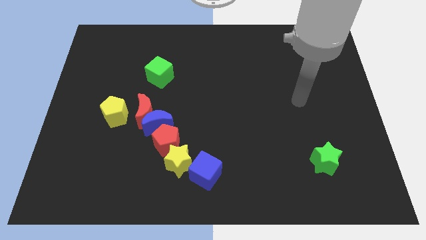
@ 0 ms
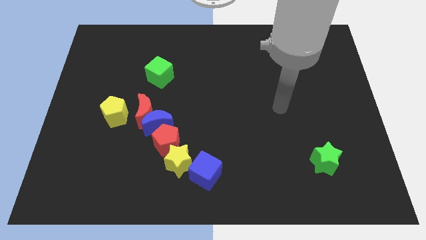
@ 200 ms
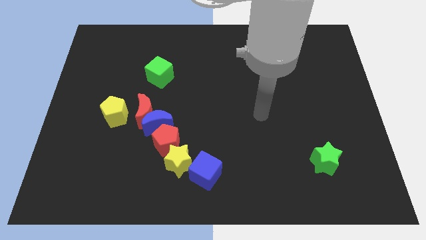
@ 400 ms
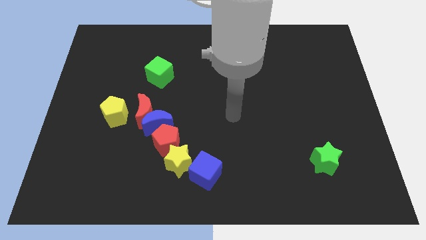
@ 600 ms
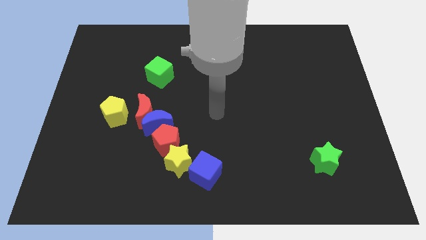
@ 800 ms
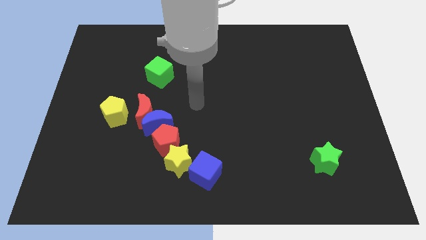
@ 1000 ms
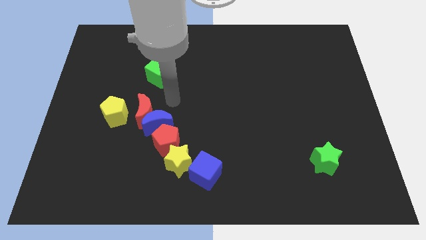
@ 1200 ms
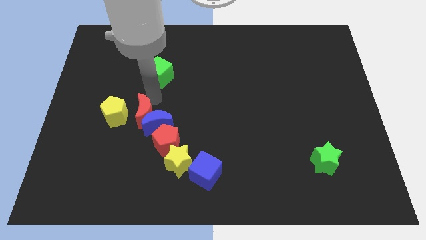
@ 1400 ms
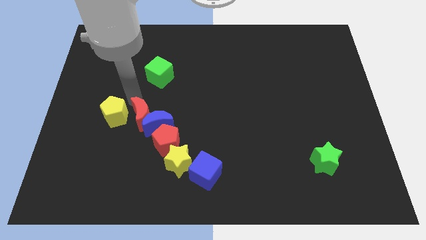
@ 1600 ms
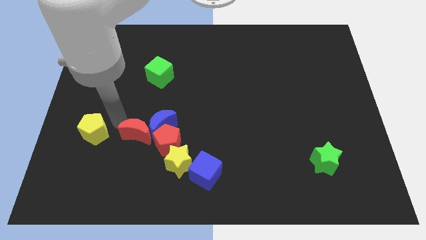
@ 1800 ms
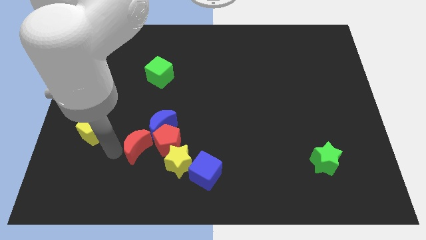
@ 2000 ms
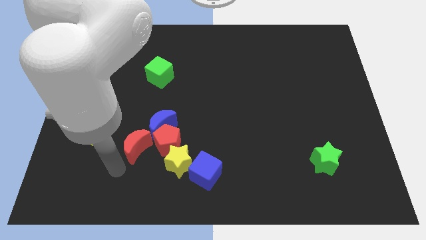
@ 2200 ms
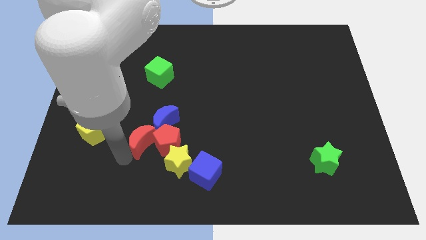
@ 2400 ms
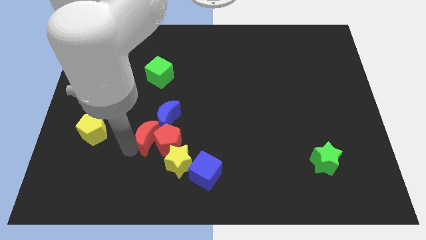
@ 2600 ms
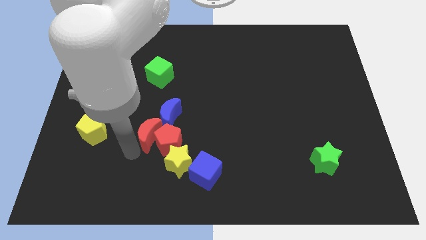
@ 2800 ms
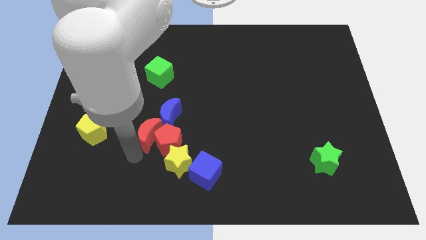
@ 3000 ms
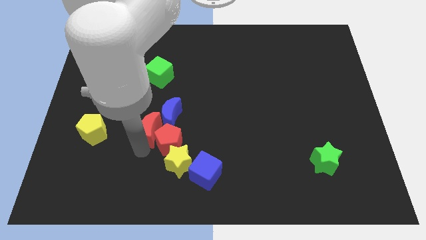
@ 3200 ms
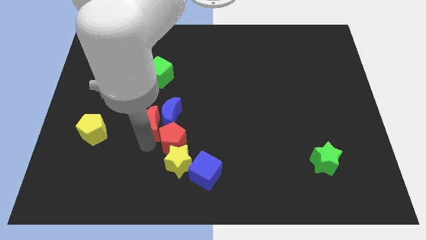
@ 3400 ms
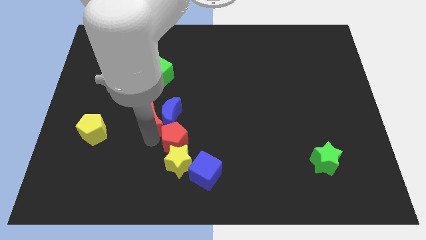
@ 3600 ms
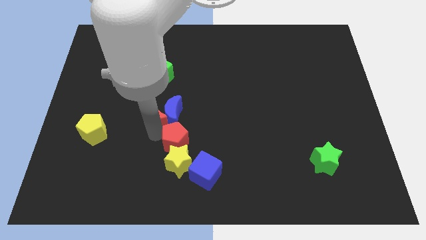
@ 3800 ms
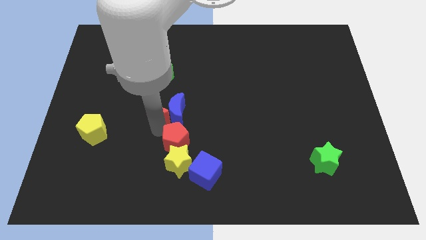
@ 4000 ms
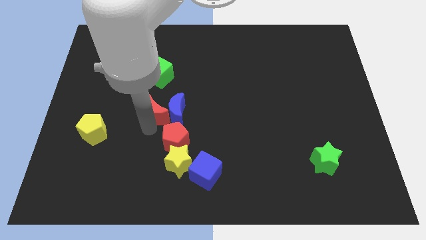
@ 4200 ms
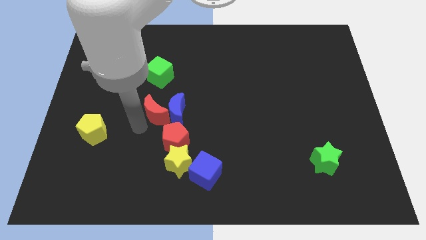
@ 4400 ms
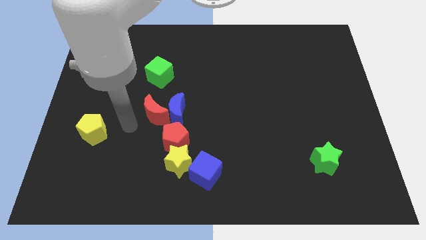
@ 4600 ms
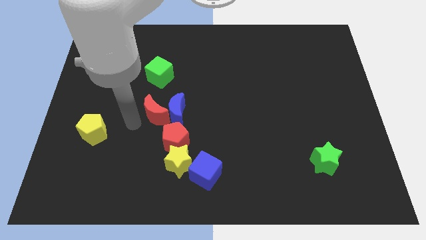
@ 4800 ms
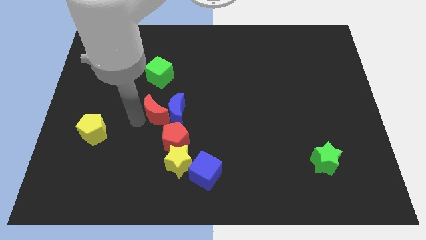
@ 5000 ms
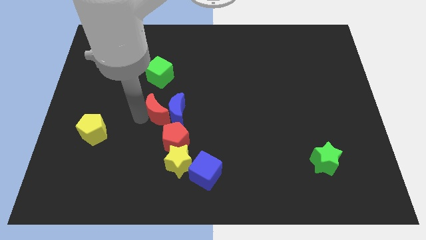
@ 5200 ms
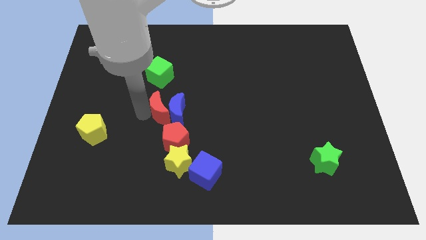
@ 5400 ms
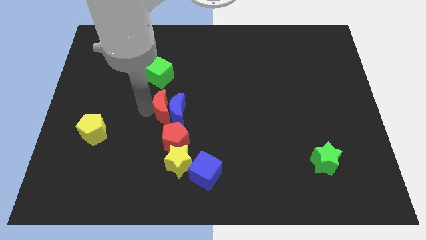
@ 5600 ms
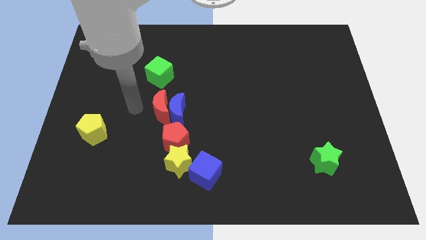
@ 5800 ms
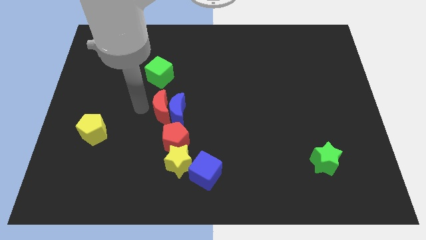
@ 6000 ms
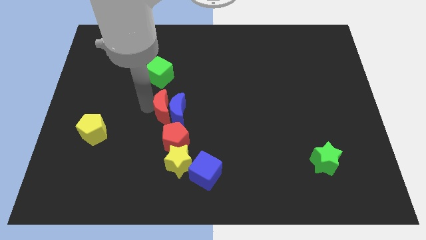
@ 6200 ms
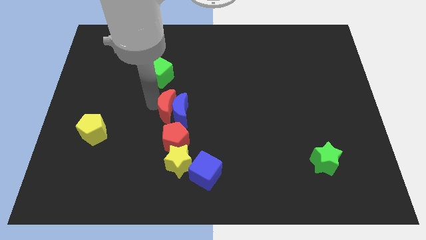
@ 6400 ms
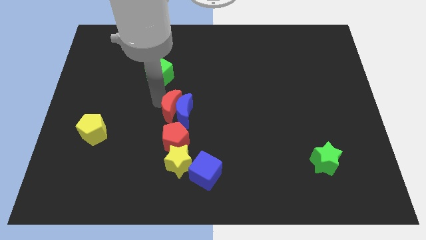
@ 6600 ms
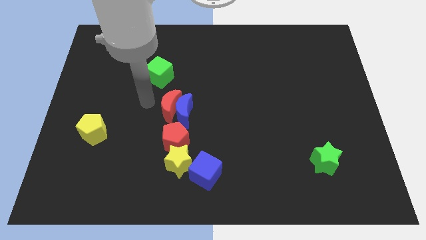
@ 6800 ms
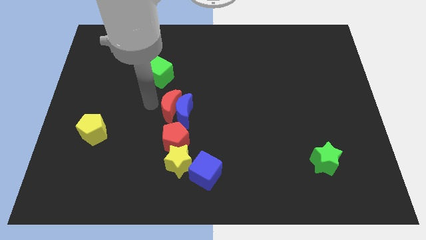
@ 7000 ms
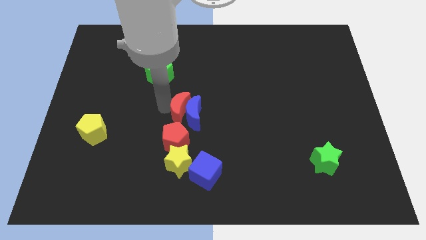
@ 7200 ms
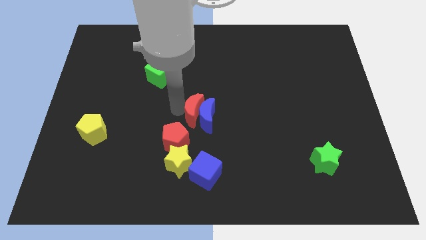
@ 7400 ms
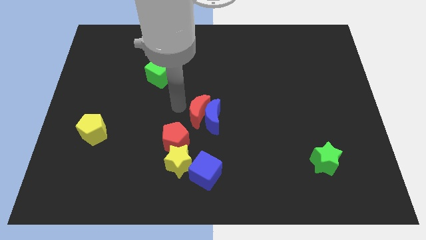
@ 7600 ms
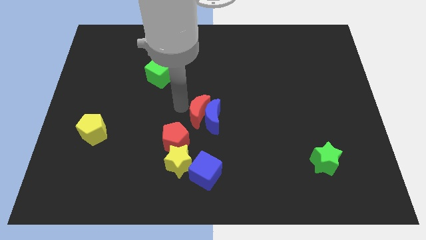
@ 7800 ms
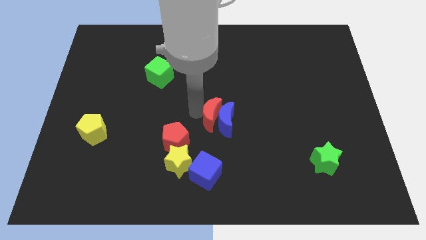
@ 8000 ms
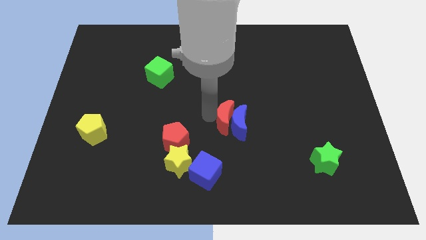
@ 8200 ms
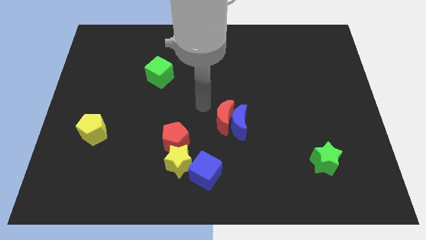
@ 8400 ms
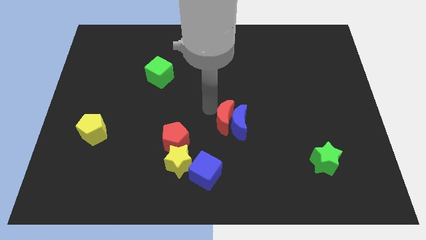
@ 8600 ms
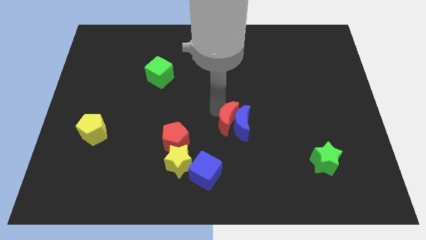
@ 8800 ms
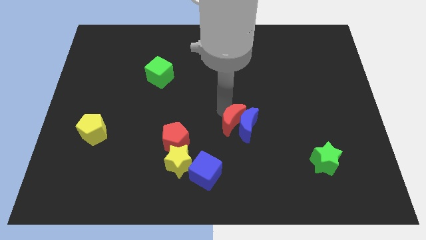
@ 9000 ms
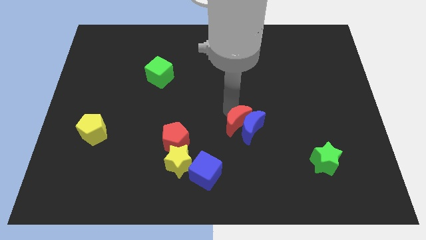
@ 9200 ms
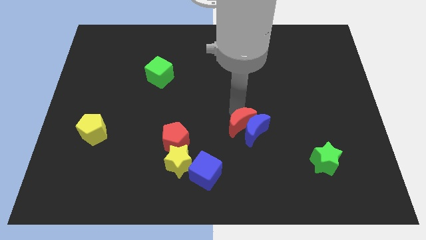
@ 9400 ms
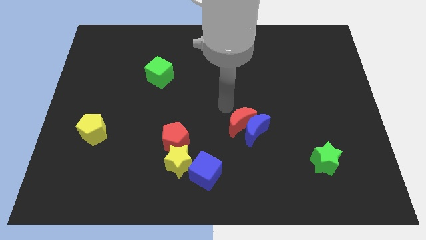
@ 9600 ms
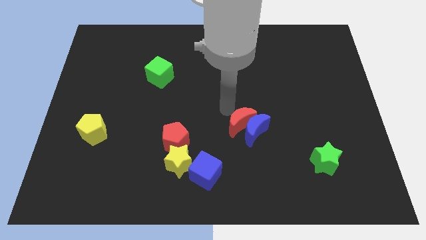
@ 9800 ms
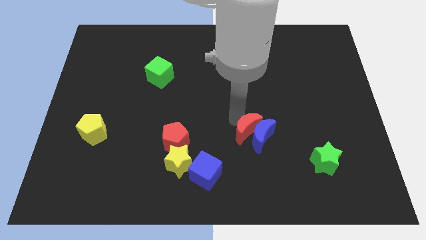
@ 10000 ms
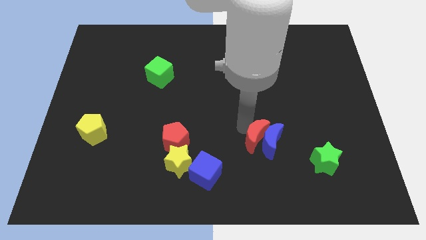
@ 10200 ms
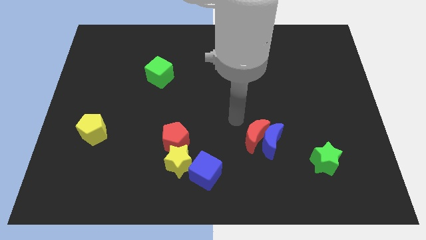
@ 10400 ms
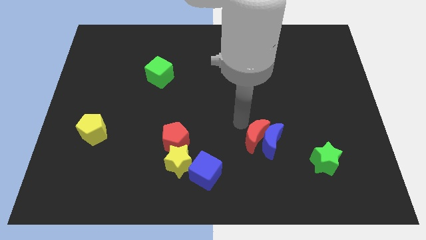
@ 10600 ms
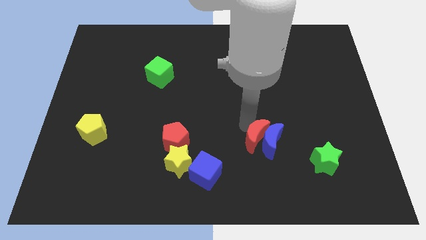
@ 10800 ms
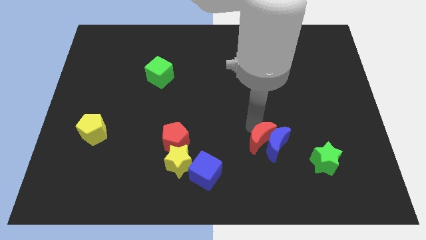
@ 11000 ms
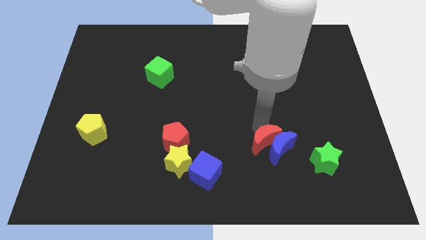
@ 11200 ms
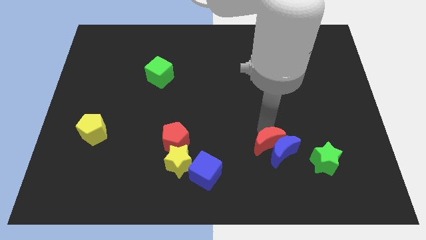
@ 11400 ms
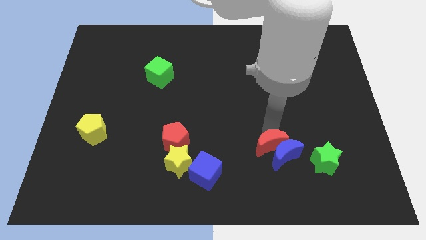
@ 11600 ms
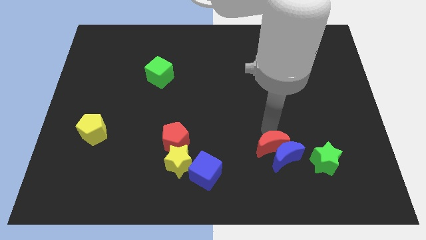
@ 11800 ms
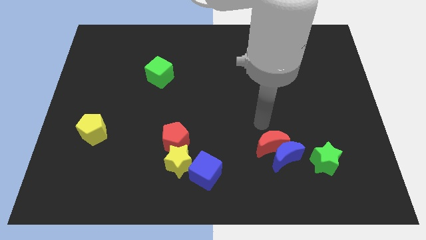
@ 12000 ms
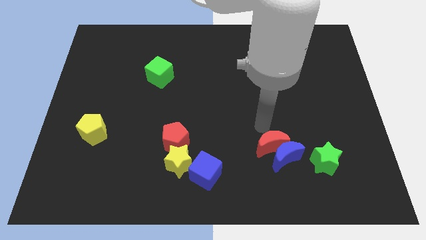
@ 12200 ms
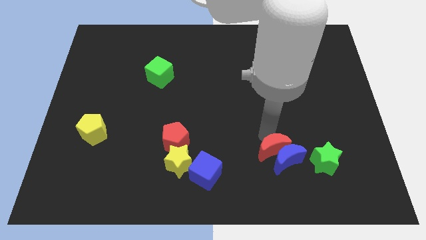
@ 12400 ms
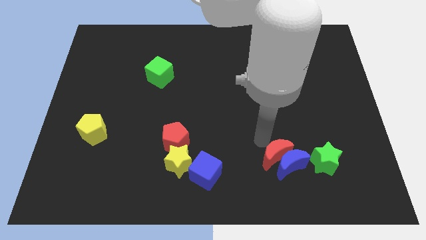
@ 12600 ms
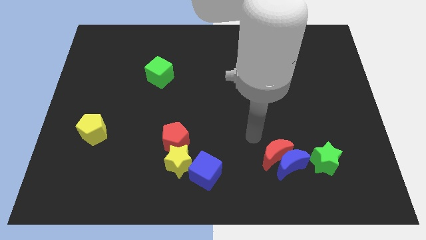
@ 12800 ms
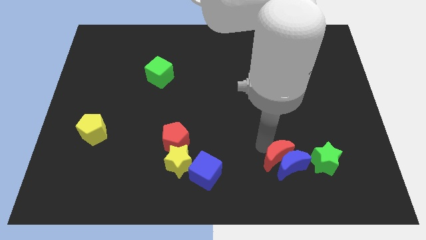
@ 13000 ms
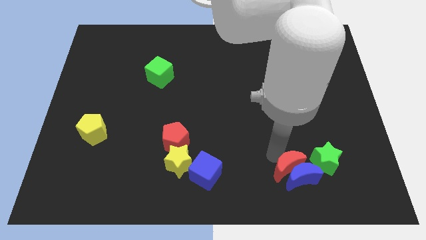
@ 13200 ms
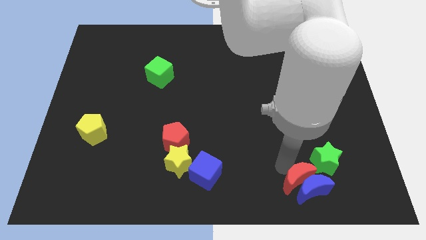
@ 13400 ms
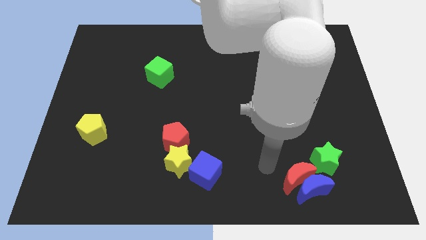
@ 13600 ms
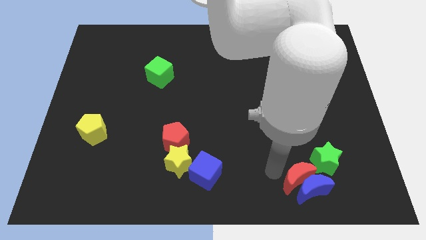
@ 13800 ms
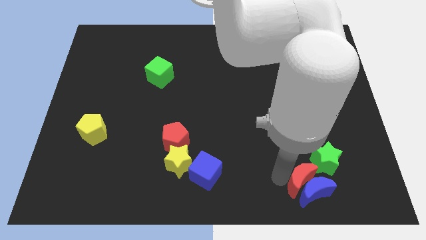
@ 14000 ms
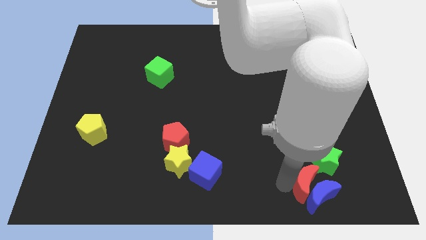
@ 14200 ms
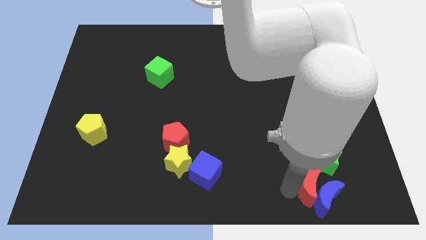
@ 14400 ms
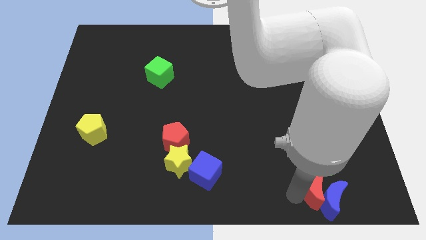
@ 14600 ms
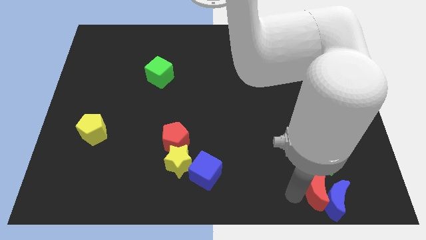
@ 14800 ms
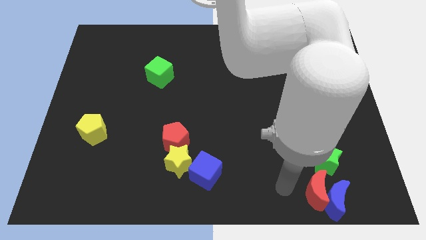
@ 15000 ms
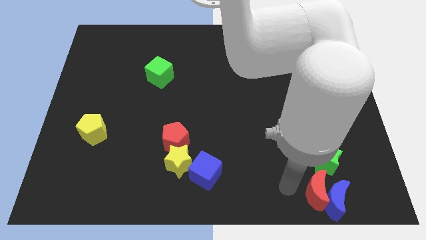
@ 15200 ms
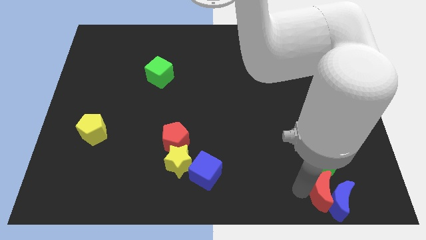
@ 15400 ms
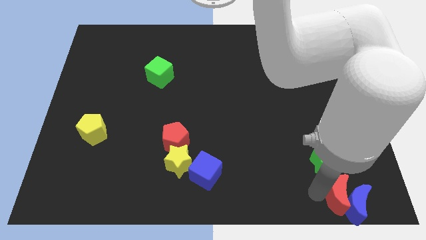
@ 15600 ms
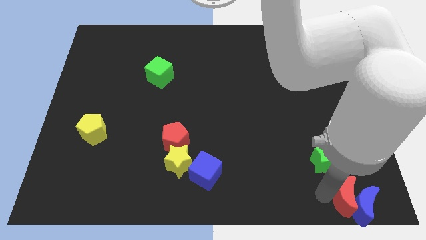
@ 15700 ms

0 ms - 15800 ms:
move the red moon to the bottom right of the board

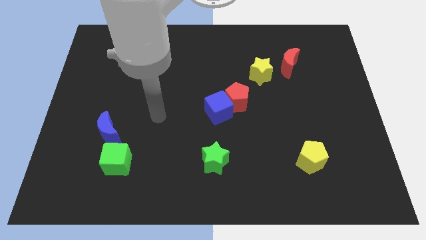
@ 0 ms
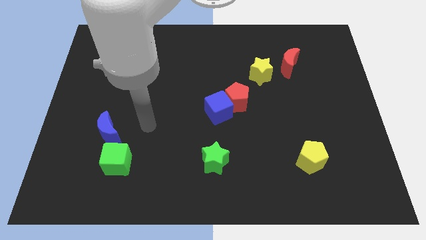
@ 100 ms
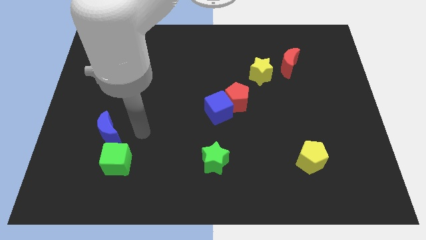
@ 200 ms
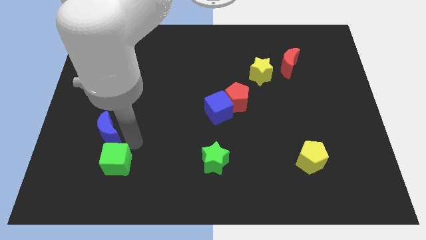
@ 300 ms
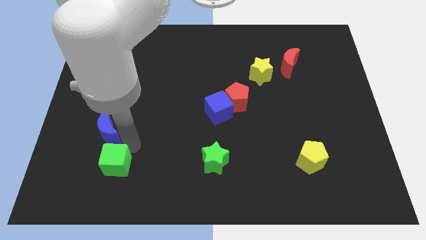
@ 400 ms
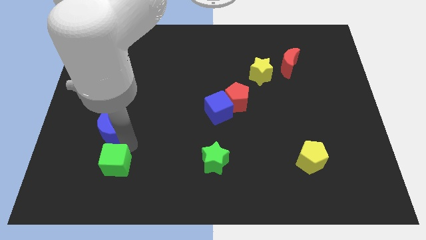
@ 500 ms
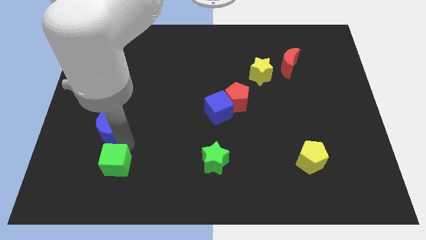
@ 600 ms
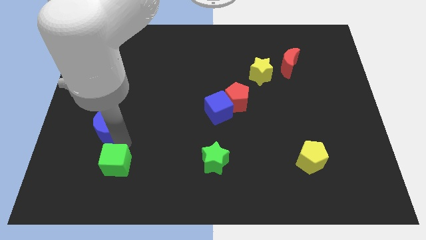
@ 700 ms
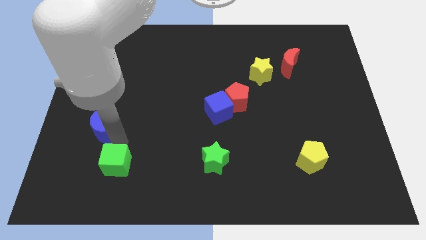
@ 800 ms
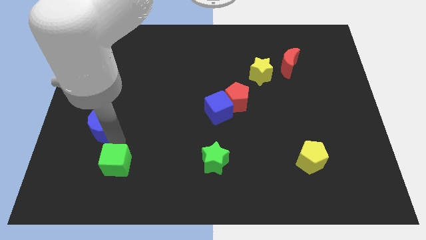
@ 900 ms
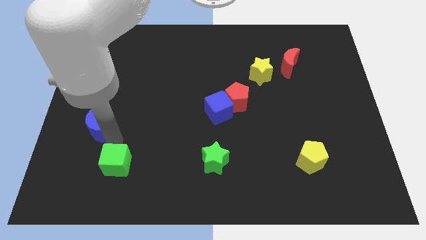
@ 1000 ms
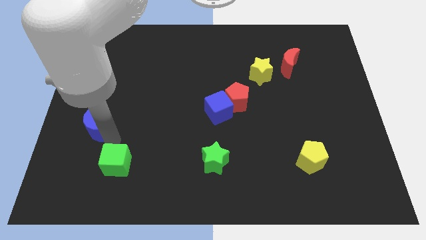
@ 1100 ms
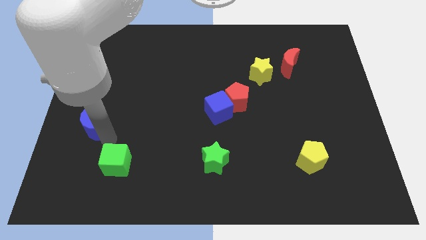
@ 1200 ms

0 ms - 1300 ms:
put the blue moon to the left side
